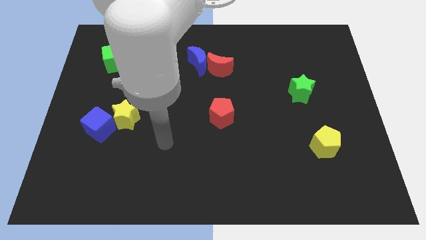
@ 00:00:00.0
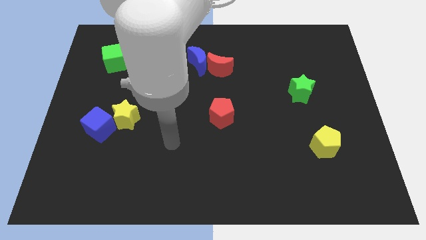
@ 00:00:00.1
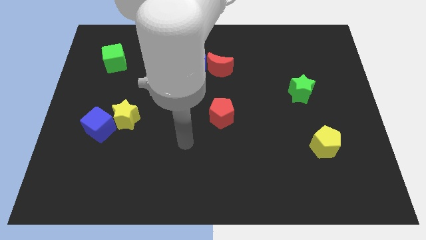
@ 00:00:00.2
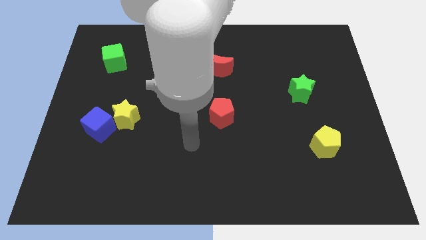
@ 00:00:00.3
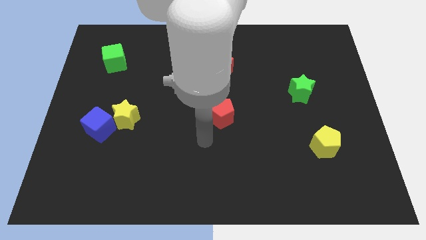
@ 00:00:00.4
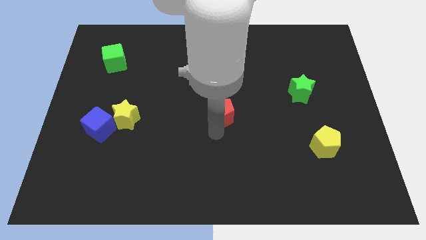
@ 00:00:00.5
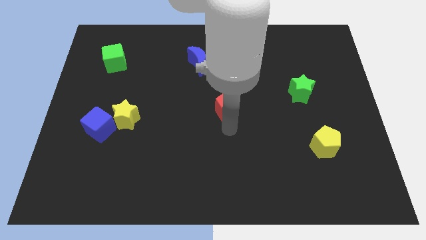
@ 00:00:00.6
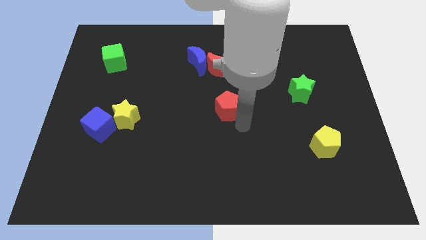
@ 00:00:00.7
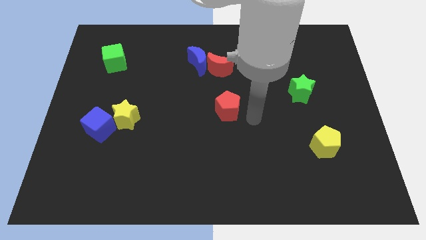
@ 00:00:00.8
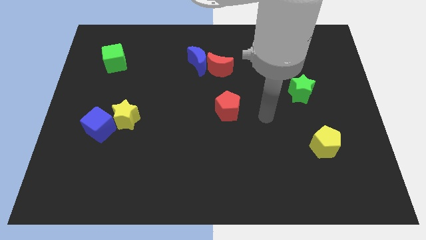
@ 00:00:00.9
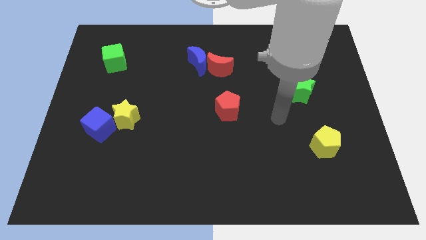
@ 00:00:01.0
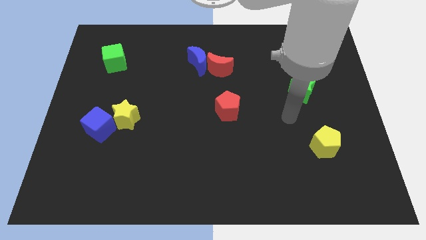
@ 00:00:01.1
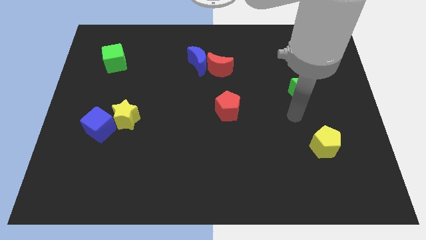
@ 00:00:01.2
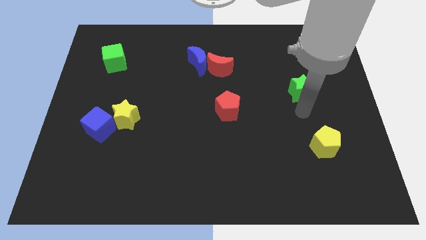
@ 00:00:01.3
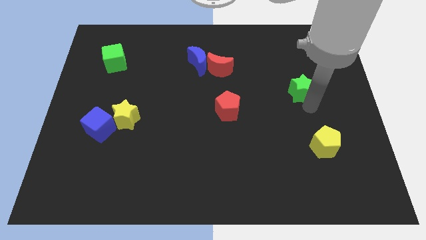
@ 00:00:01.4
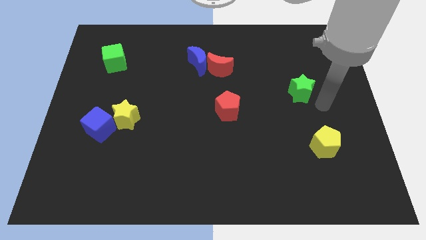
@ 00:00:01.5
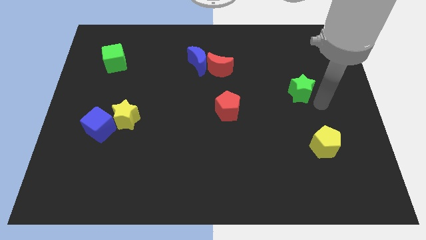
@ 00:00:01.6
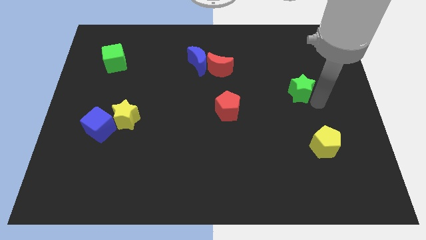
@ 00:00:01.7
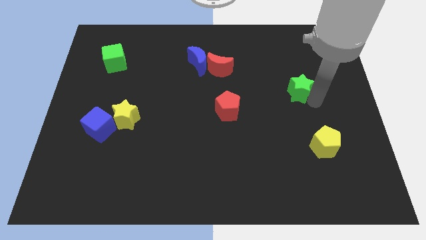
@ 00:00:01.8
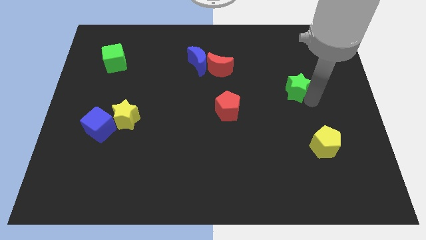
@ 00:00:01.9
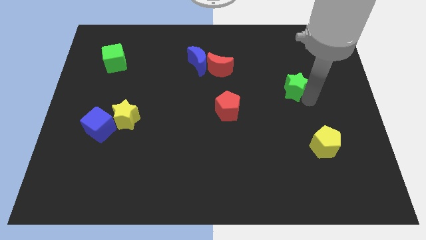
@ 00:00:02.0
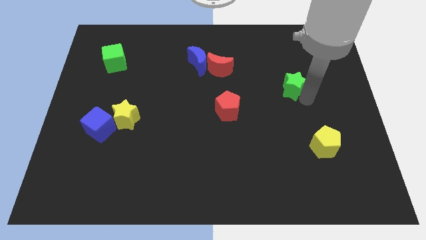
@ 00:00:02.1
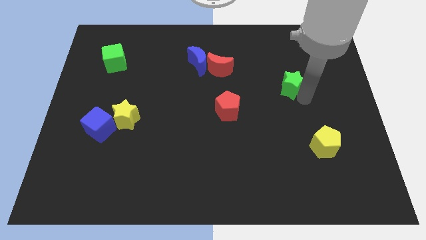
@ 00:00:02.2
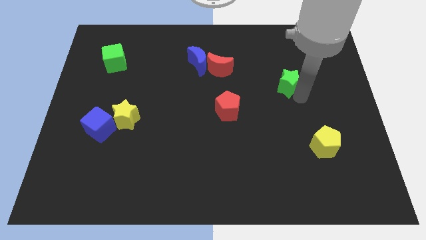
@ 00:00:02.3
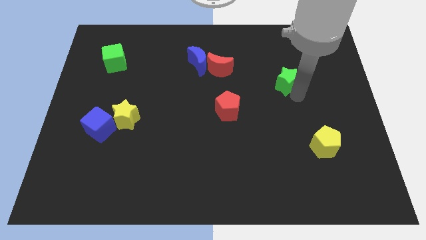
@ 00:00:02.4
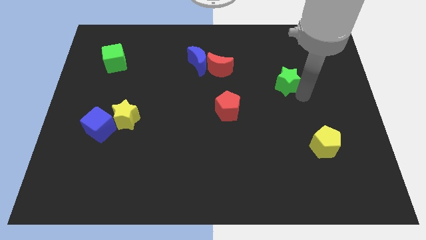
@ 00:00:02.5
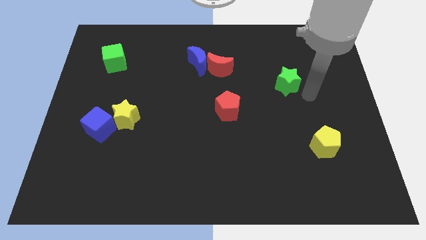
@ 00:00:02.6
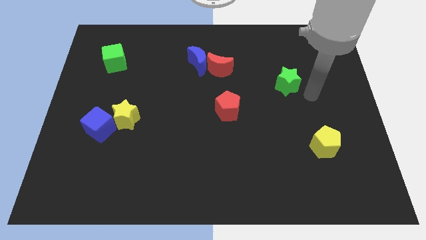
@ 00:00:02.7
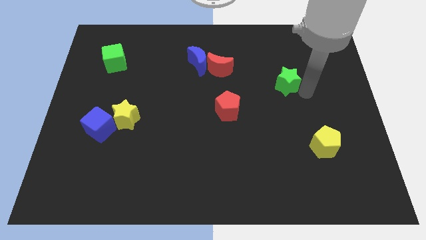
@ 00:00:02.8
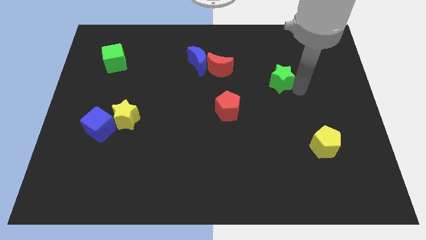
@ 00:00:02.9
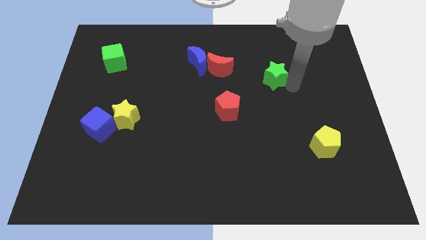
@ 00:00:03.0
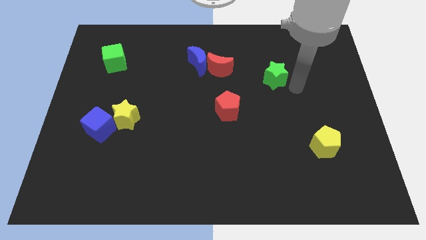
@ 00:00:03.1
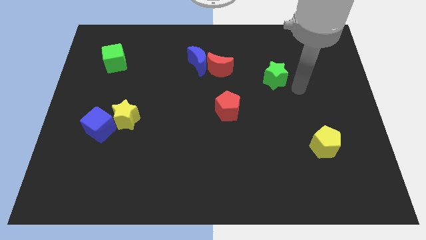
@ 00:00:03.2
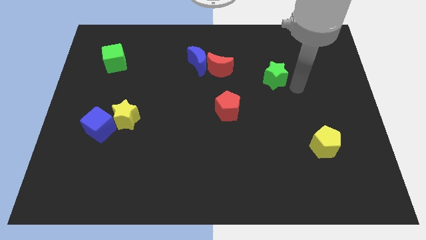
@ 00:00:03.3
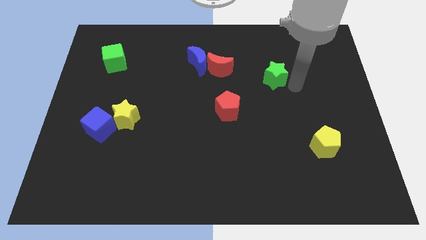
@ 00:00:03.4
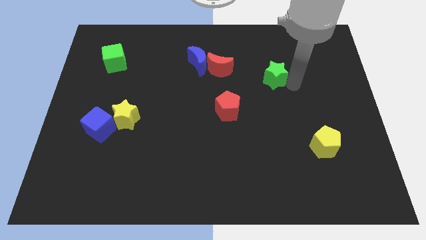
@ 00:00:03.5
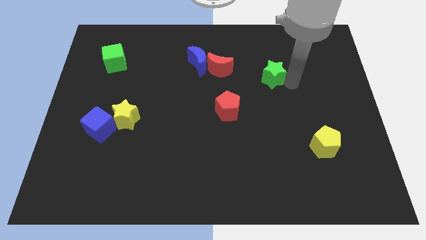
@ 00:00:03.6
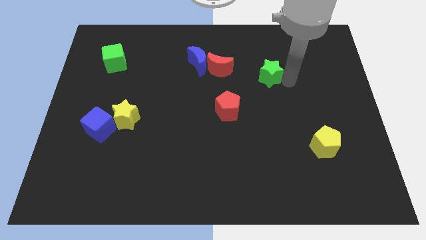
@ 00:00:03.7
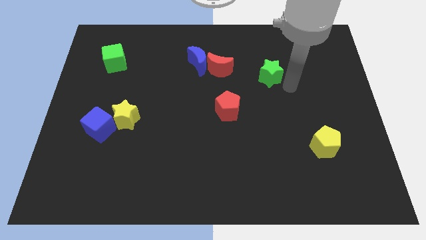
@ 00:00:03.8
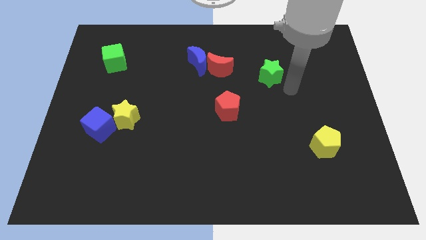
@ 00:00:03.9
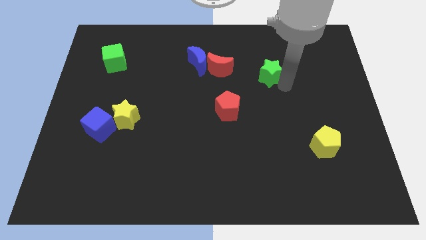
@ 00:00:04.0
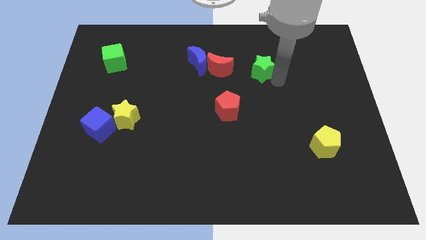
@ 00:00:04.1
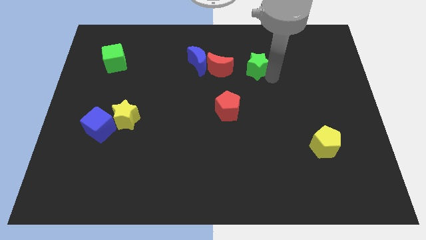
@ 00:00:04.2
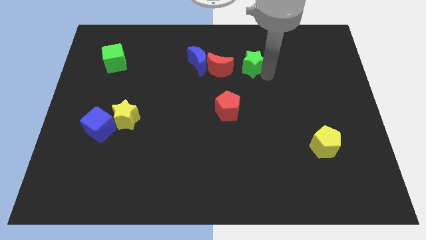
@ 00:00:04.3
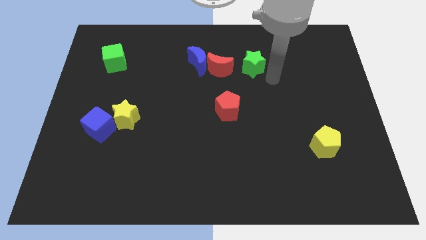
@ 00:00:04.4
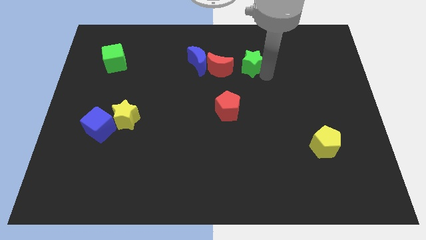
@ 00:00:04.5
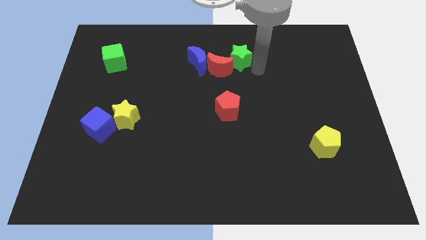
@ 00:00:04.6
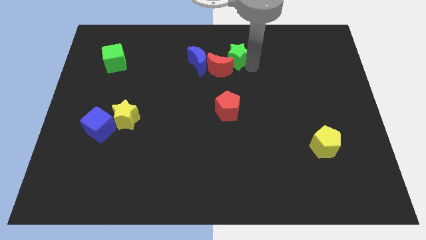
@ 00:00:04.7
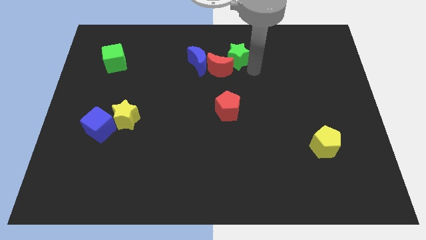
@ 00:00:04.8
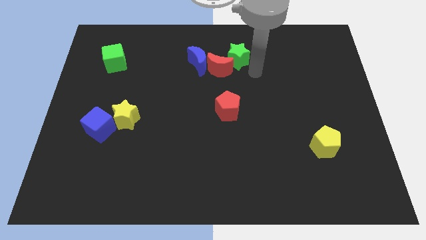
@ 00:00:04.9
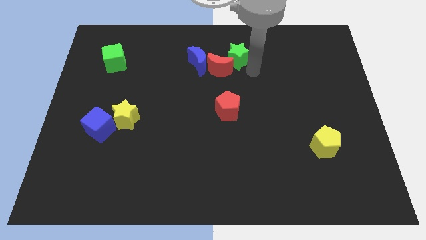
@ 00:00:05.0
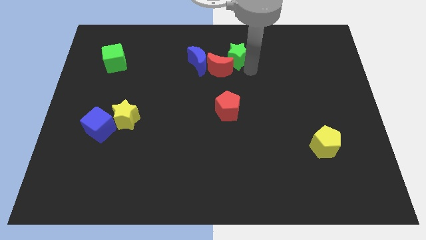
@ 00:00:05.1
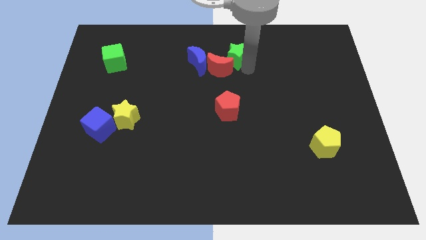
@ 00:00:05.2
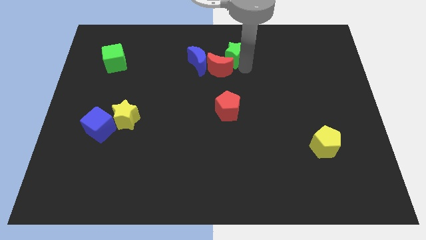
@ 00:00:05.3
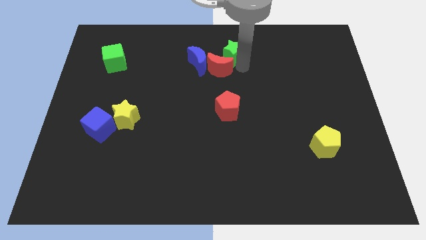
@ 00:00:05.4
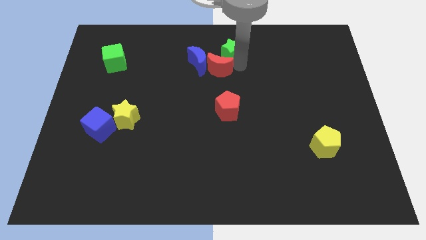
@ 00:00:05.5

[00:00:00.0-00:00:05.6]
put the green star to the top

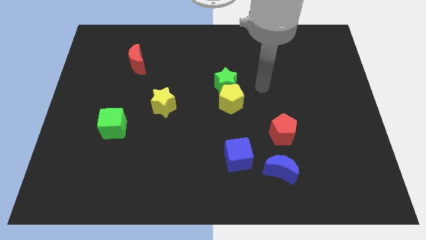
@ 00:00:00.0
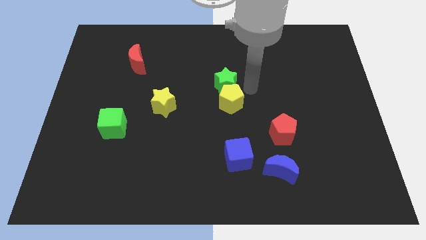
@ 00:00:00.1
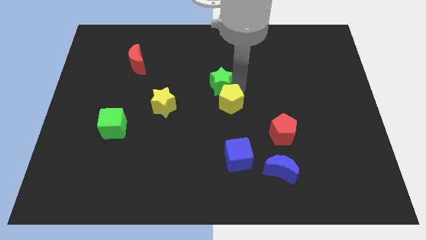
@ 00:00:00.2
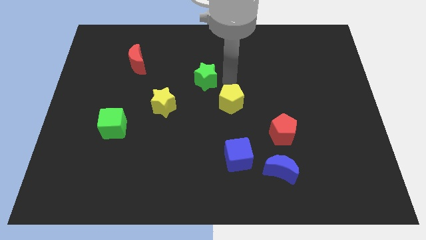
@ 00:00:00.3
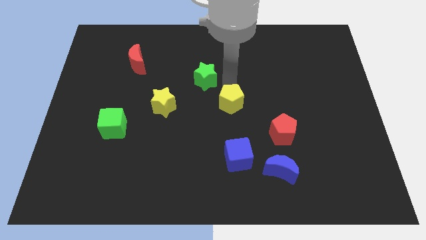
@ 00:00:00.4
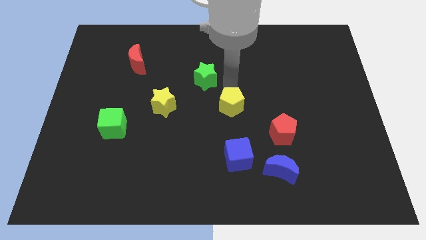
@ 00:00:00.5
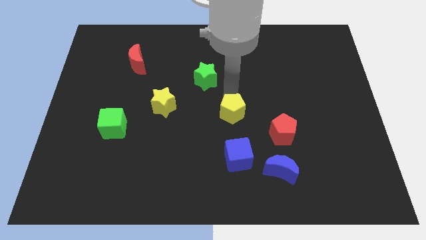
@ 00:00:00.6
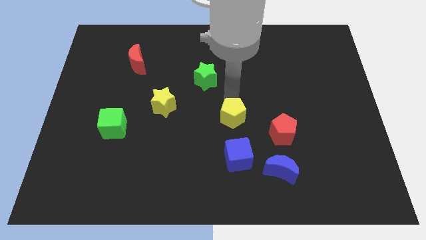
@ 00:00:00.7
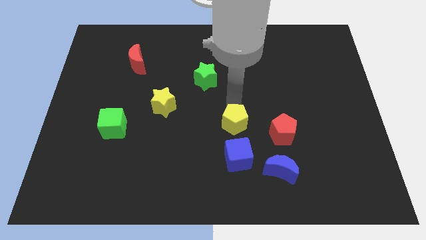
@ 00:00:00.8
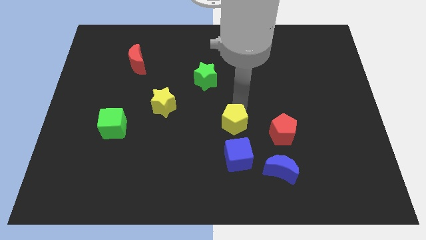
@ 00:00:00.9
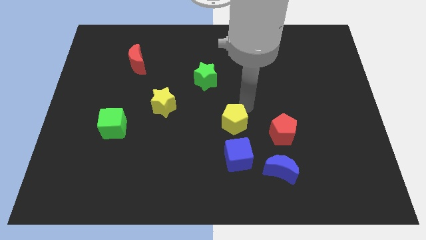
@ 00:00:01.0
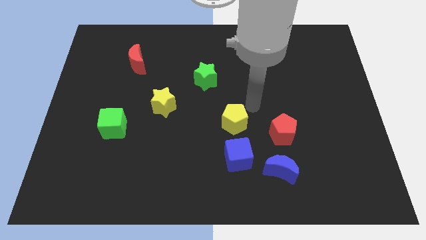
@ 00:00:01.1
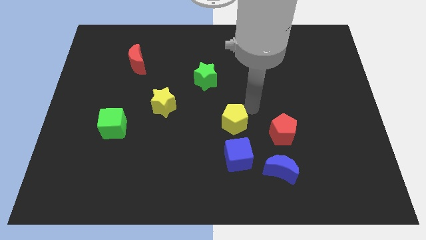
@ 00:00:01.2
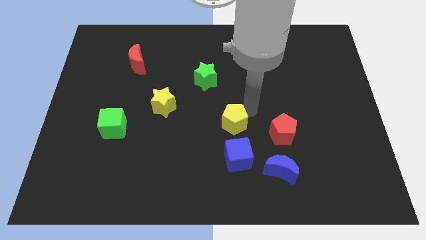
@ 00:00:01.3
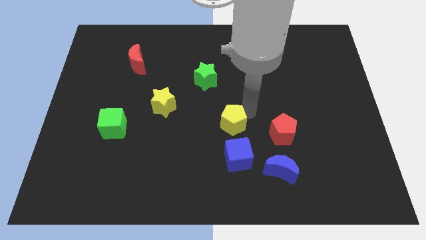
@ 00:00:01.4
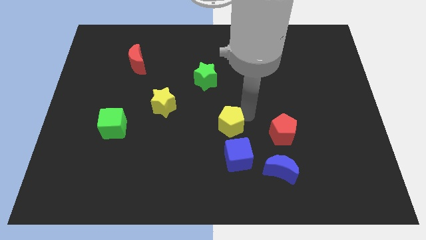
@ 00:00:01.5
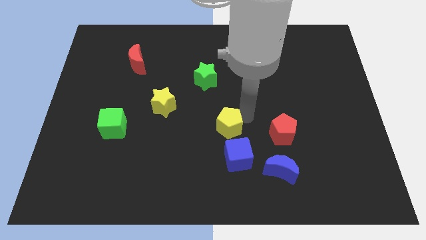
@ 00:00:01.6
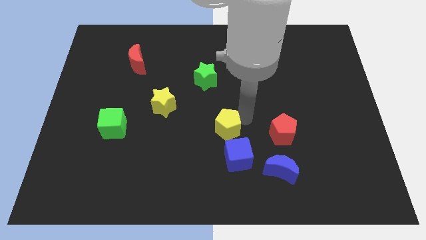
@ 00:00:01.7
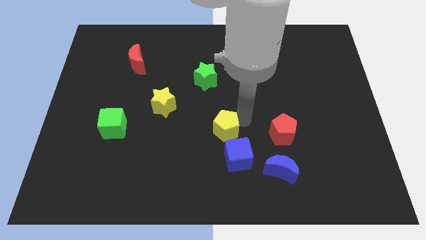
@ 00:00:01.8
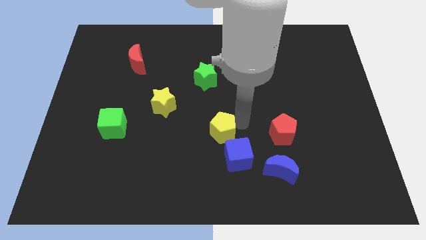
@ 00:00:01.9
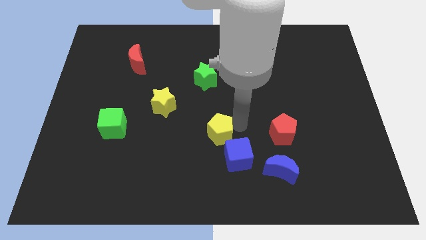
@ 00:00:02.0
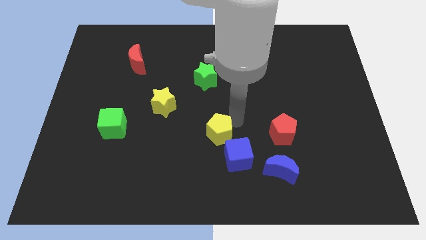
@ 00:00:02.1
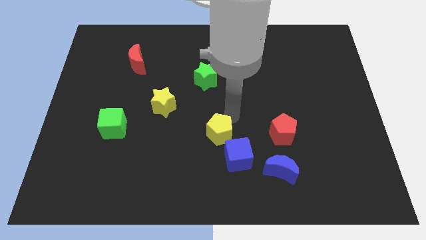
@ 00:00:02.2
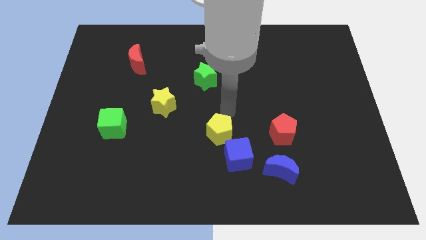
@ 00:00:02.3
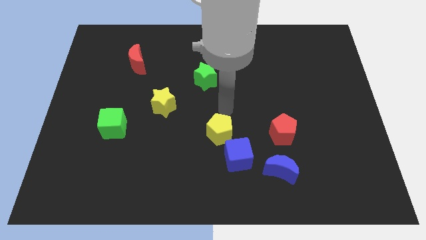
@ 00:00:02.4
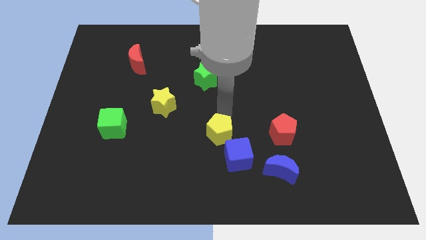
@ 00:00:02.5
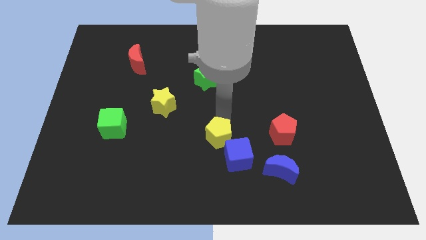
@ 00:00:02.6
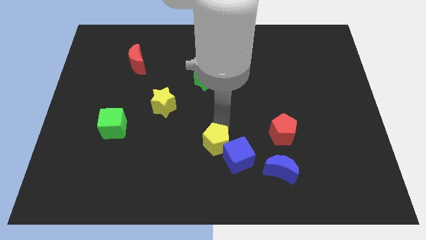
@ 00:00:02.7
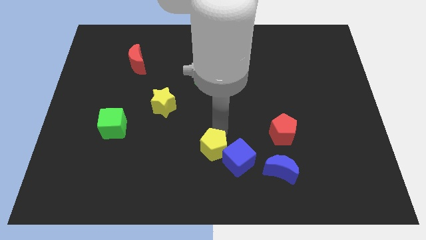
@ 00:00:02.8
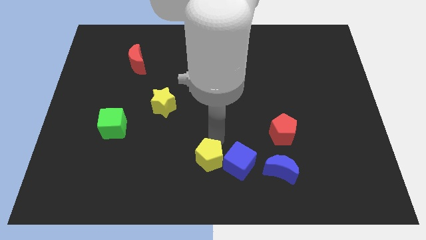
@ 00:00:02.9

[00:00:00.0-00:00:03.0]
slide the yellow pentagon to the bottom side
